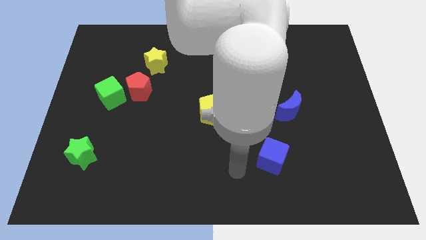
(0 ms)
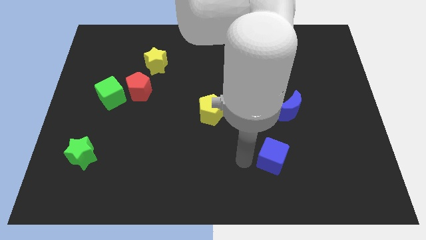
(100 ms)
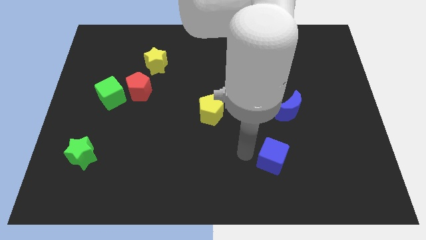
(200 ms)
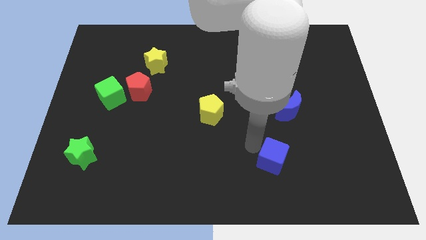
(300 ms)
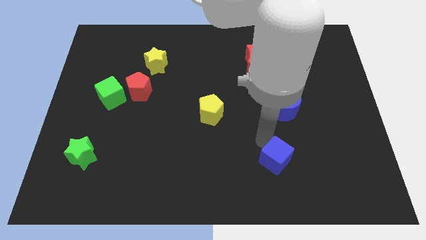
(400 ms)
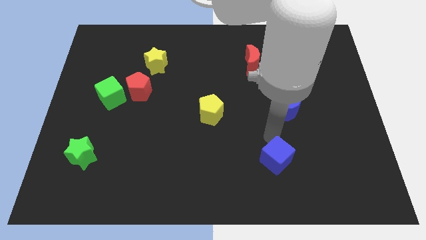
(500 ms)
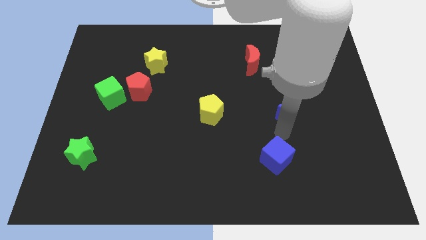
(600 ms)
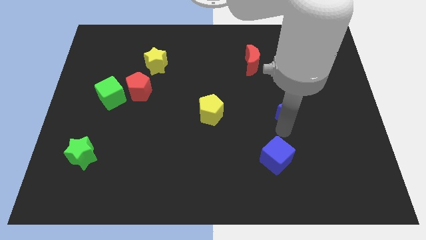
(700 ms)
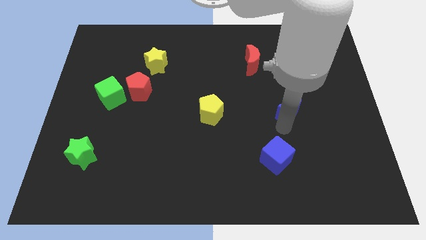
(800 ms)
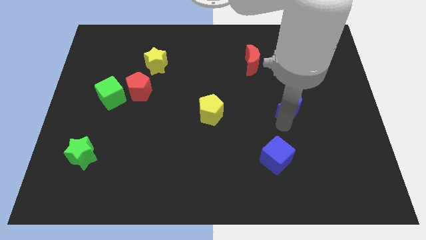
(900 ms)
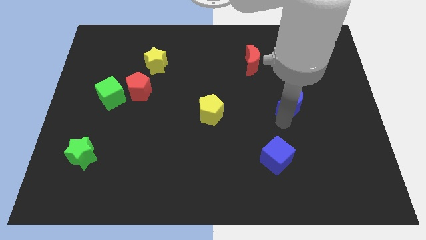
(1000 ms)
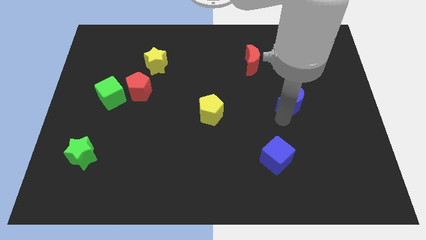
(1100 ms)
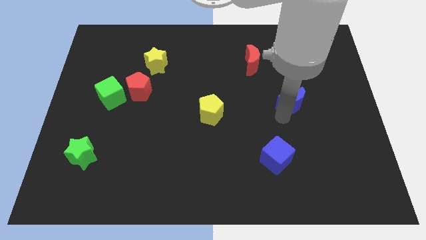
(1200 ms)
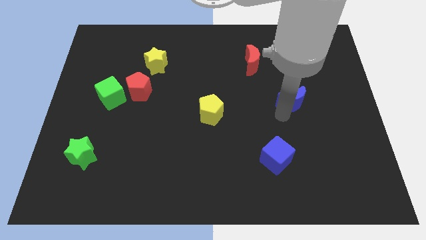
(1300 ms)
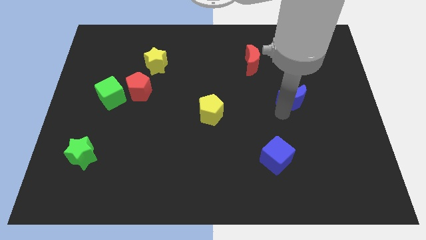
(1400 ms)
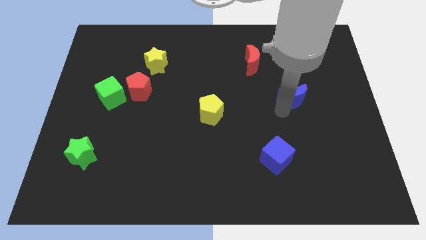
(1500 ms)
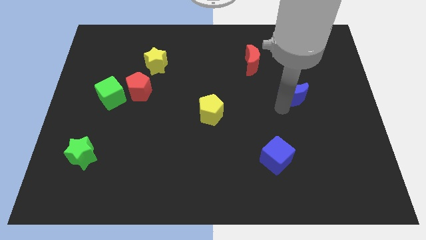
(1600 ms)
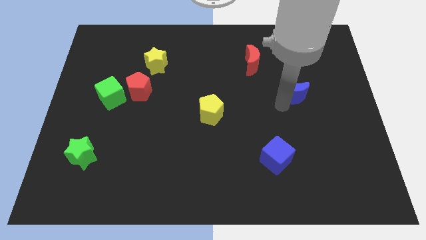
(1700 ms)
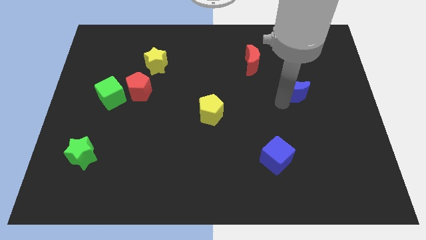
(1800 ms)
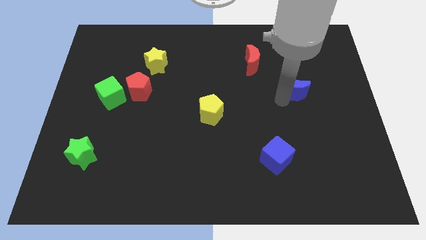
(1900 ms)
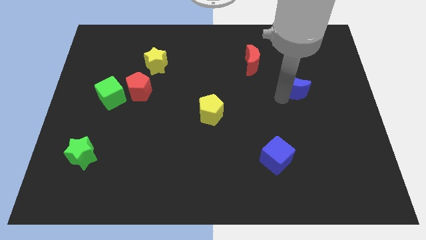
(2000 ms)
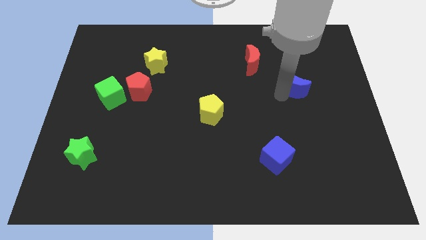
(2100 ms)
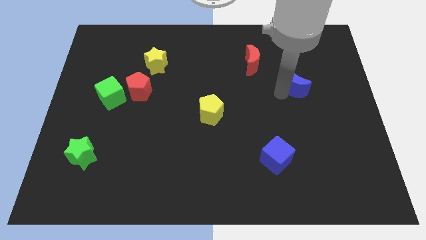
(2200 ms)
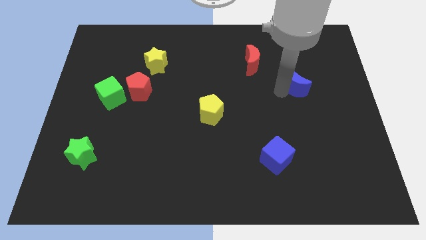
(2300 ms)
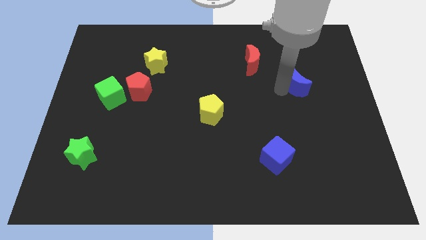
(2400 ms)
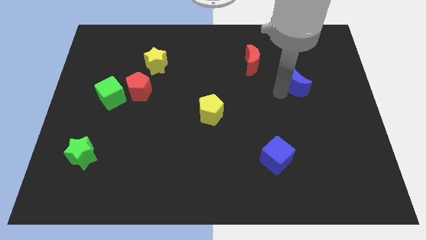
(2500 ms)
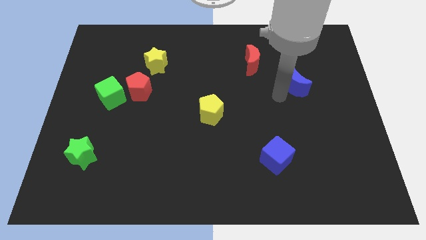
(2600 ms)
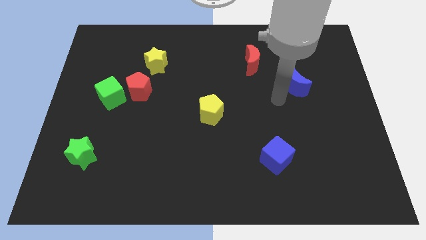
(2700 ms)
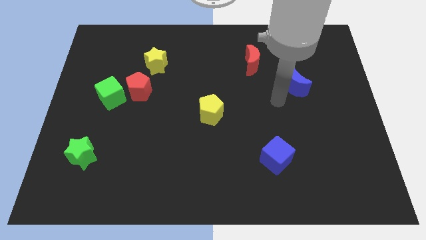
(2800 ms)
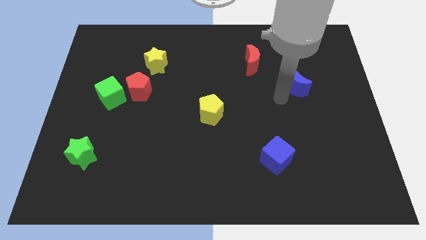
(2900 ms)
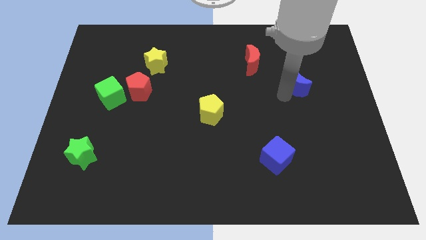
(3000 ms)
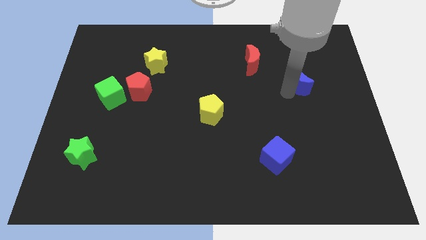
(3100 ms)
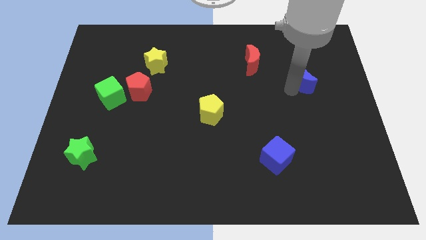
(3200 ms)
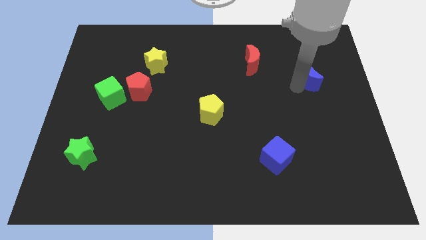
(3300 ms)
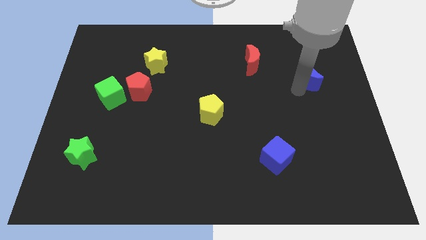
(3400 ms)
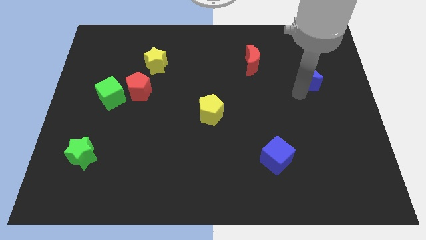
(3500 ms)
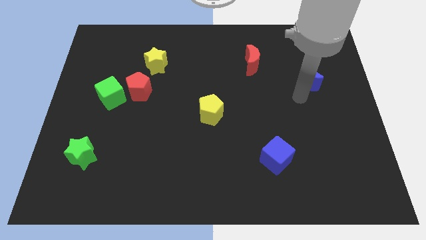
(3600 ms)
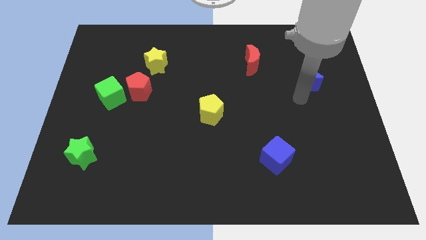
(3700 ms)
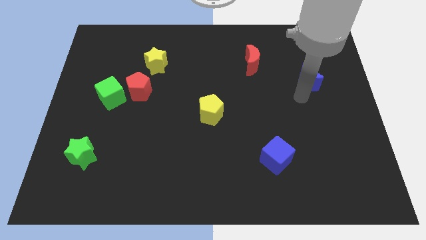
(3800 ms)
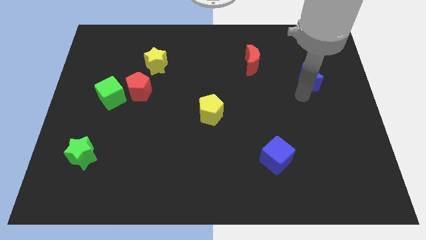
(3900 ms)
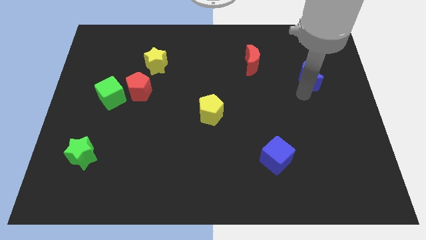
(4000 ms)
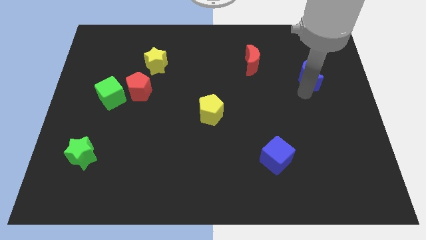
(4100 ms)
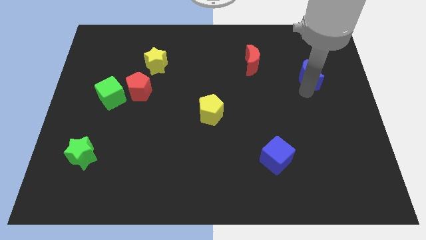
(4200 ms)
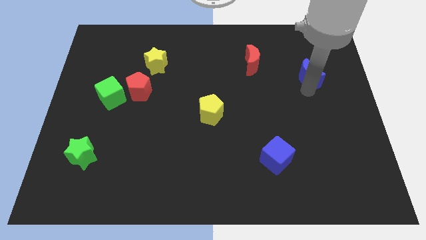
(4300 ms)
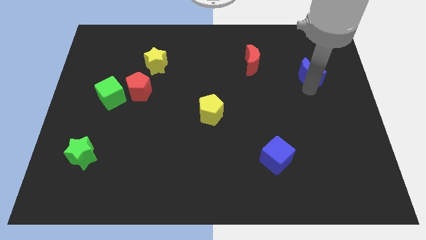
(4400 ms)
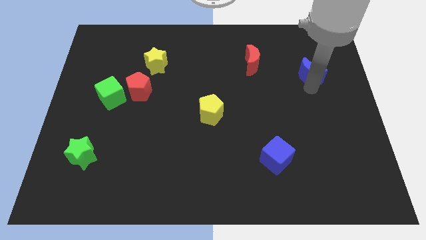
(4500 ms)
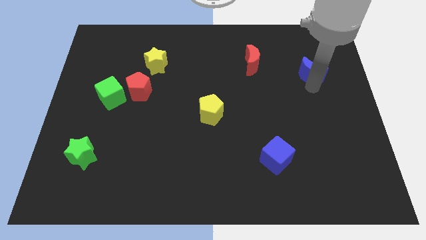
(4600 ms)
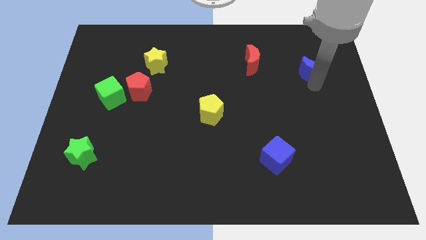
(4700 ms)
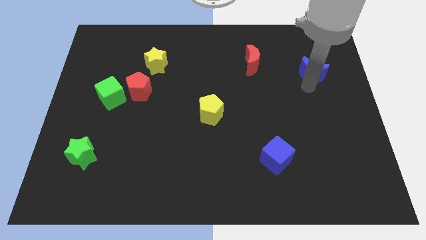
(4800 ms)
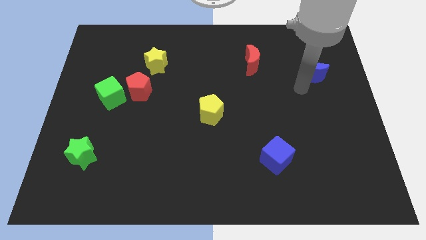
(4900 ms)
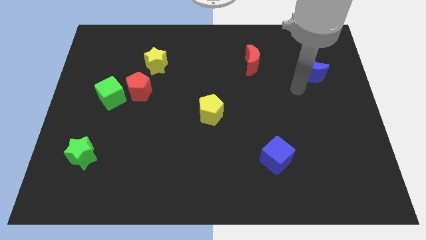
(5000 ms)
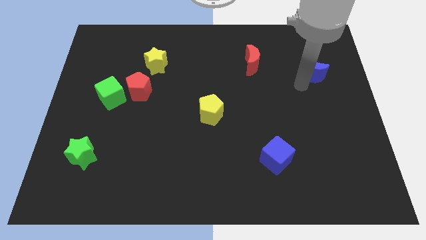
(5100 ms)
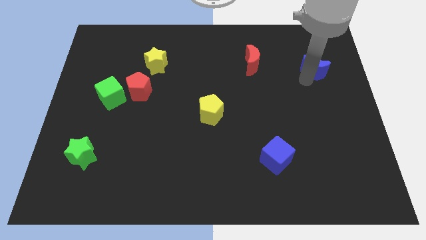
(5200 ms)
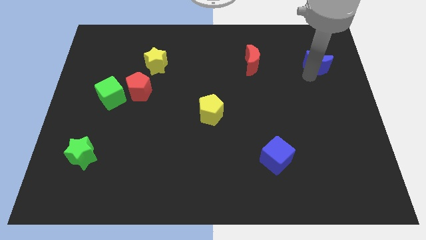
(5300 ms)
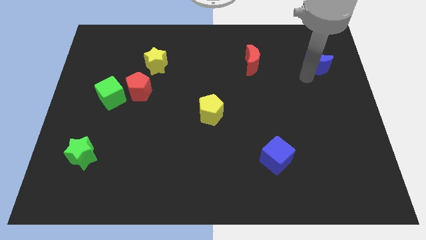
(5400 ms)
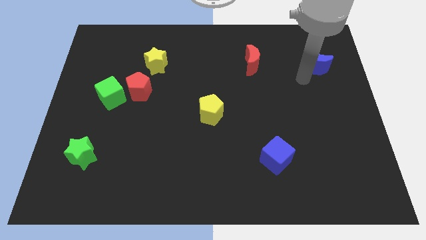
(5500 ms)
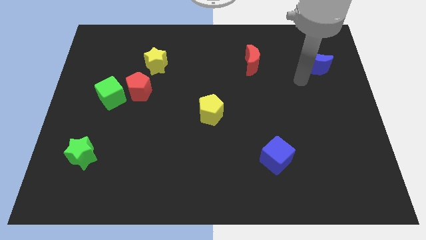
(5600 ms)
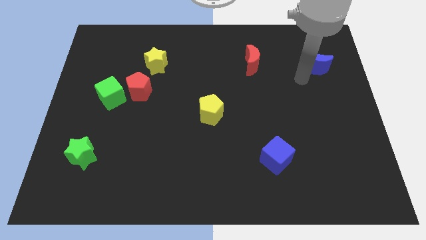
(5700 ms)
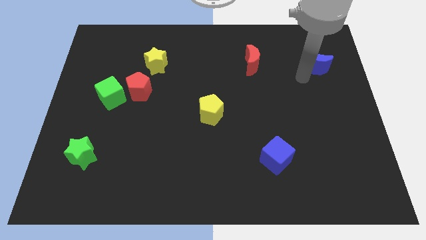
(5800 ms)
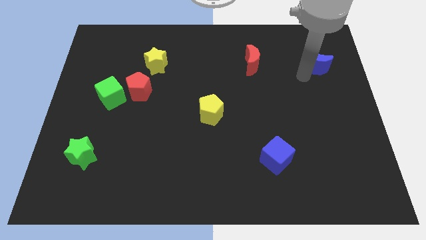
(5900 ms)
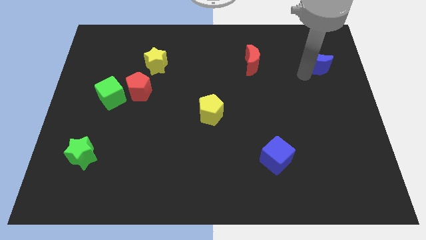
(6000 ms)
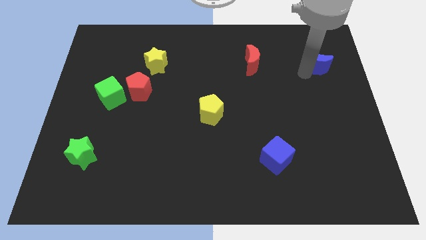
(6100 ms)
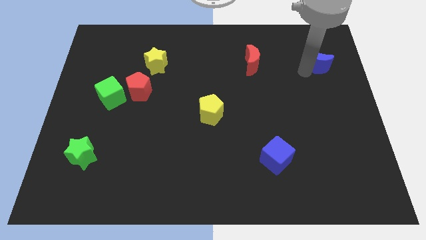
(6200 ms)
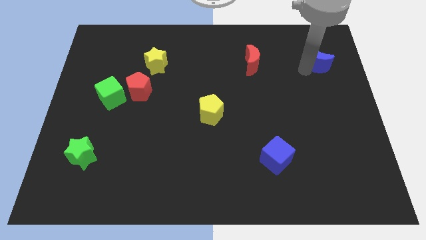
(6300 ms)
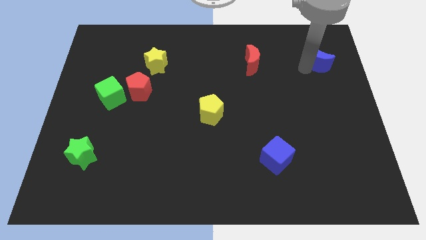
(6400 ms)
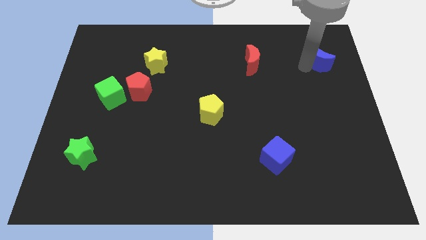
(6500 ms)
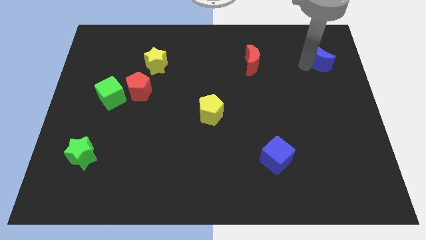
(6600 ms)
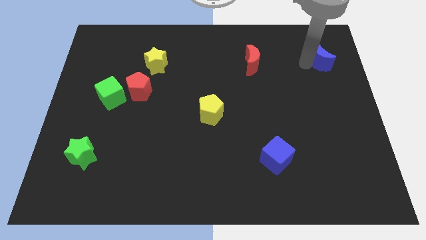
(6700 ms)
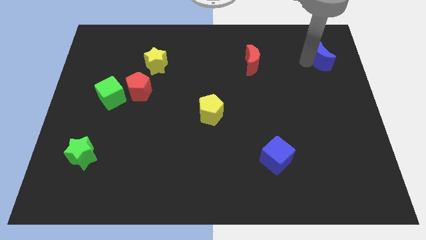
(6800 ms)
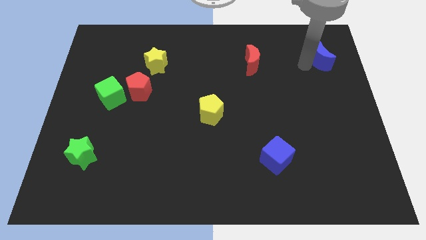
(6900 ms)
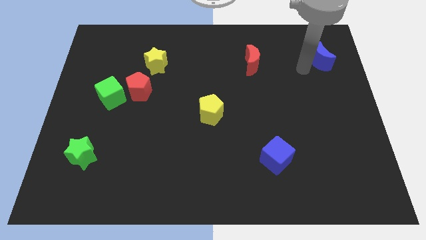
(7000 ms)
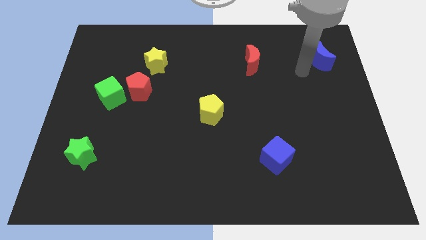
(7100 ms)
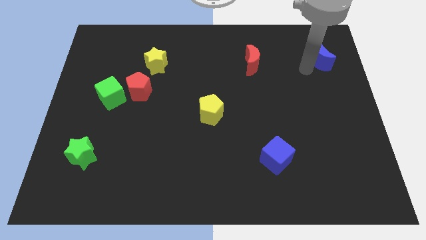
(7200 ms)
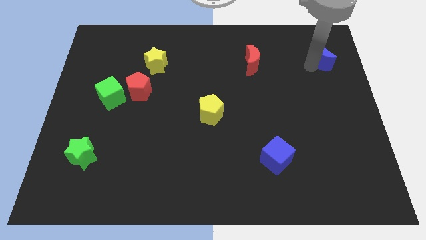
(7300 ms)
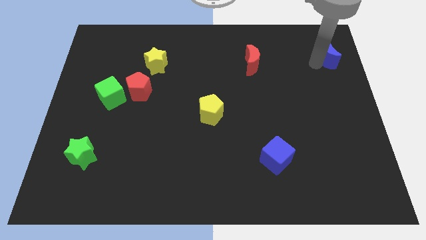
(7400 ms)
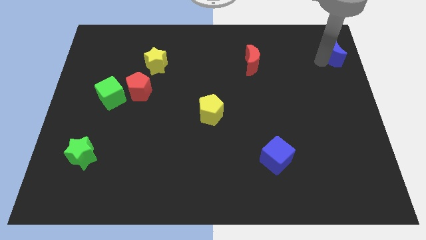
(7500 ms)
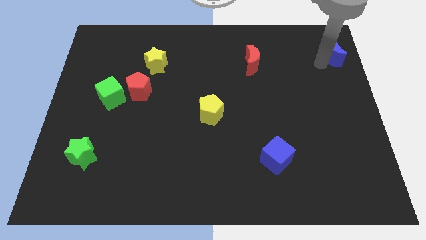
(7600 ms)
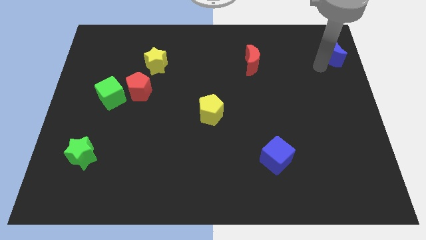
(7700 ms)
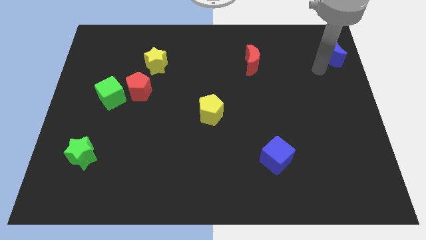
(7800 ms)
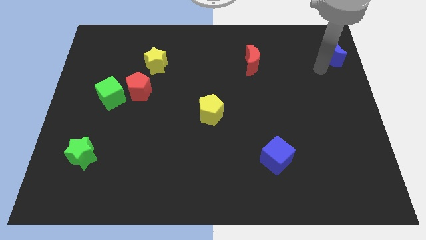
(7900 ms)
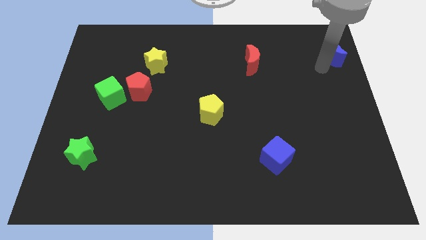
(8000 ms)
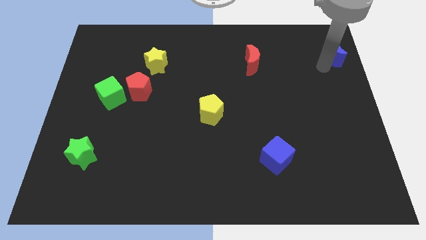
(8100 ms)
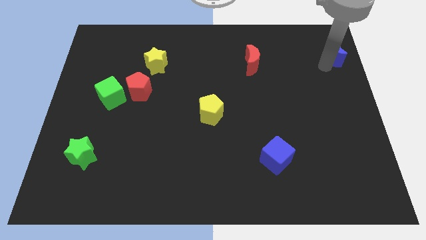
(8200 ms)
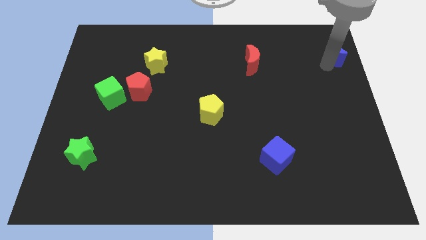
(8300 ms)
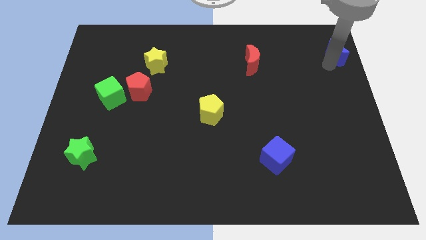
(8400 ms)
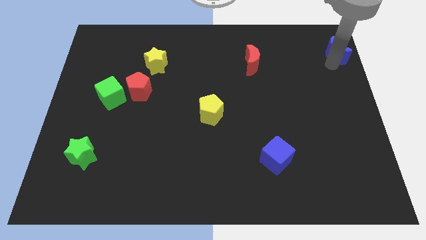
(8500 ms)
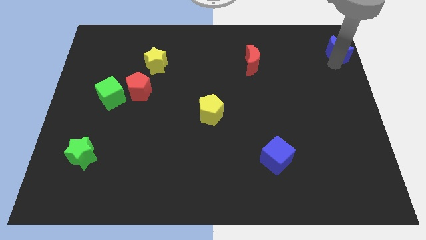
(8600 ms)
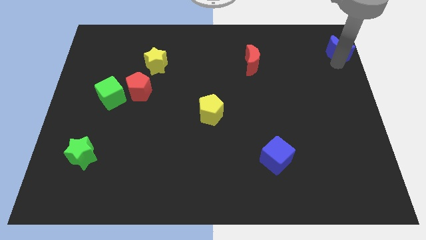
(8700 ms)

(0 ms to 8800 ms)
put the blue moon to the upper right corner
